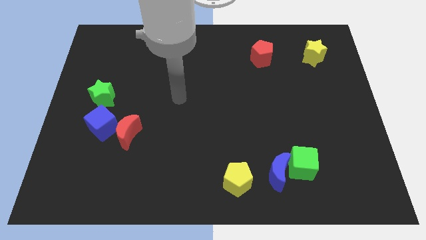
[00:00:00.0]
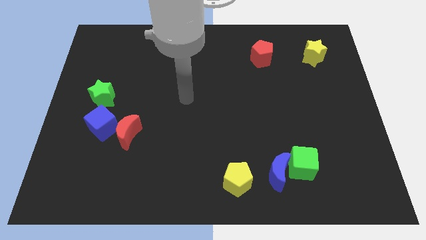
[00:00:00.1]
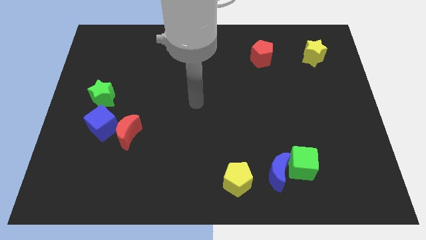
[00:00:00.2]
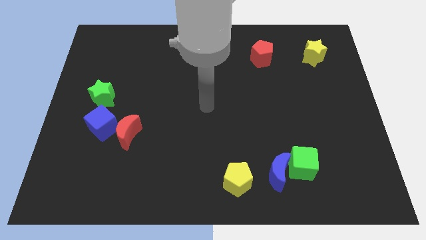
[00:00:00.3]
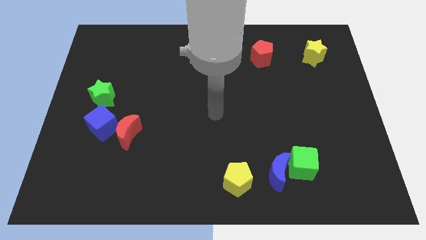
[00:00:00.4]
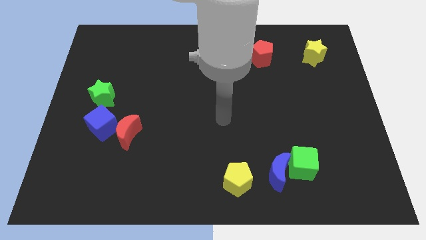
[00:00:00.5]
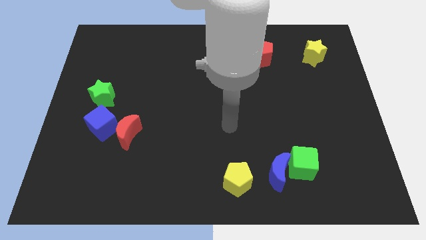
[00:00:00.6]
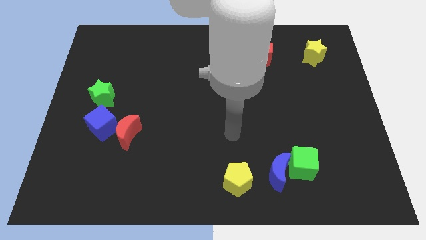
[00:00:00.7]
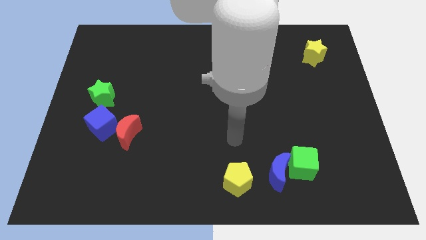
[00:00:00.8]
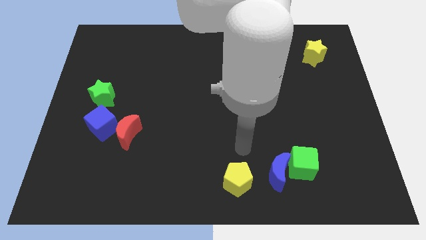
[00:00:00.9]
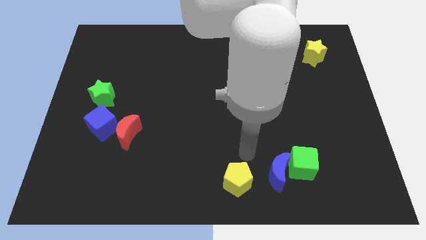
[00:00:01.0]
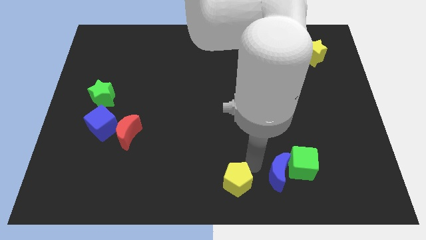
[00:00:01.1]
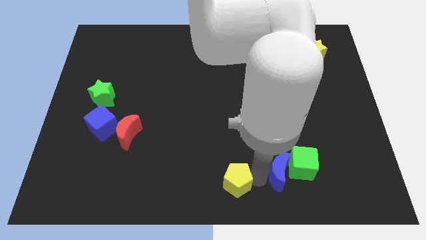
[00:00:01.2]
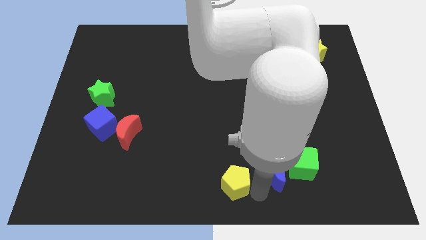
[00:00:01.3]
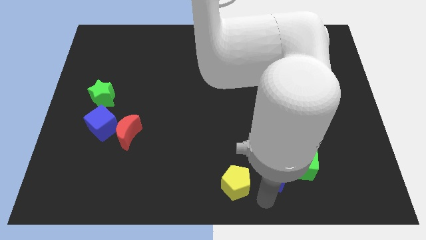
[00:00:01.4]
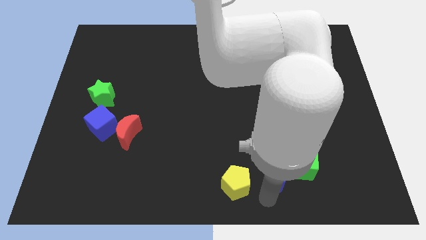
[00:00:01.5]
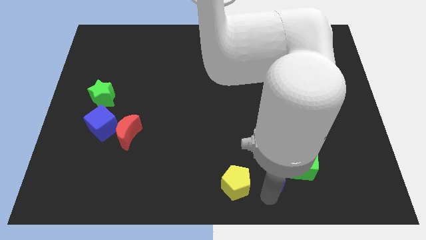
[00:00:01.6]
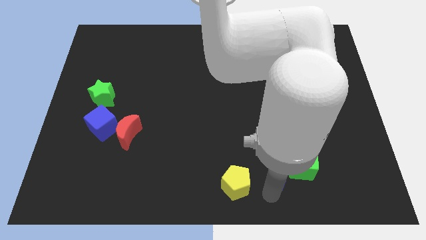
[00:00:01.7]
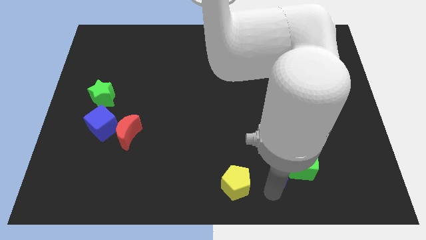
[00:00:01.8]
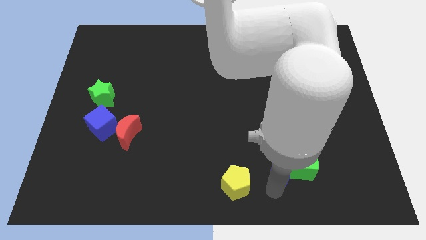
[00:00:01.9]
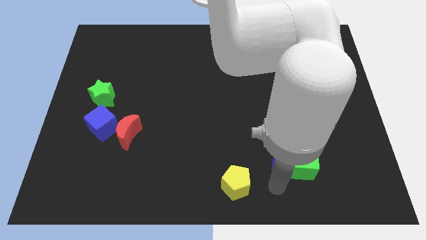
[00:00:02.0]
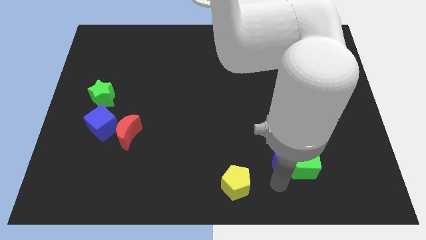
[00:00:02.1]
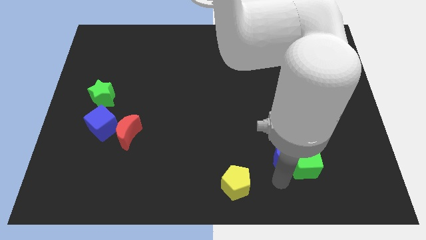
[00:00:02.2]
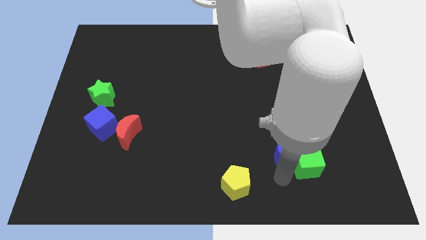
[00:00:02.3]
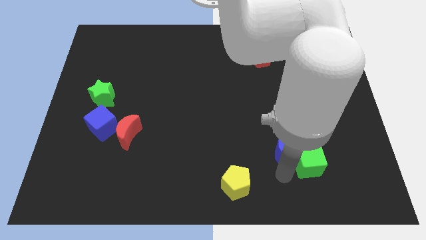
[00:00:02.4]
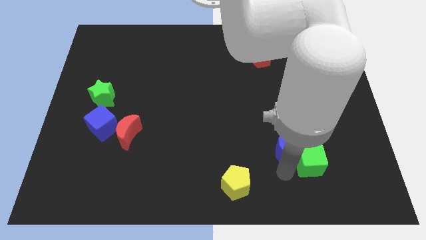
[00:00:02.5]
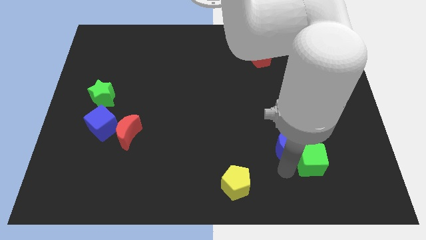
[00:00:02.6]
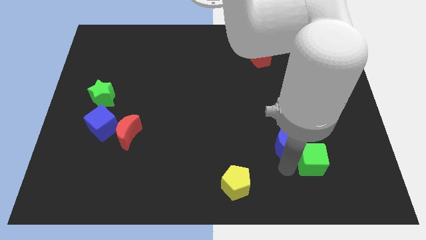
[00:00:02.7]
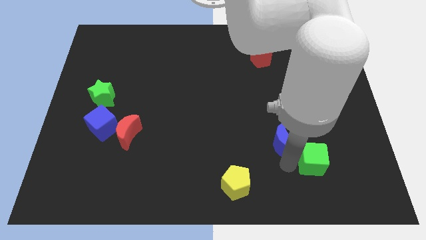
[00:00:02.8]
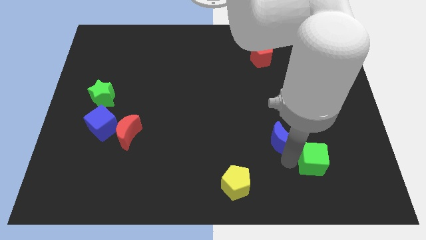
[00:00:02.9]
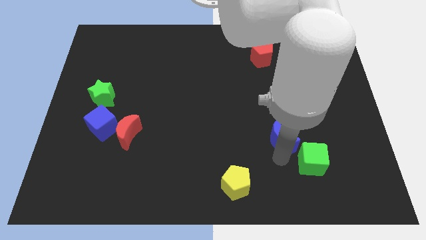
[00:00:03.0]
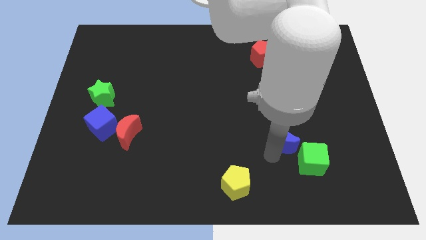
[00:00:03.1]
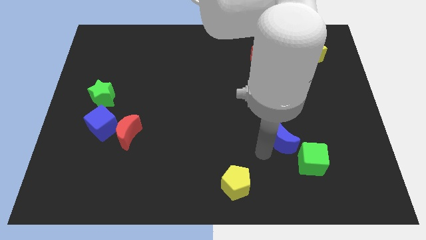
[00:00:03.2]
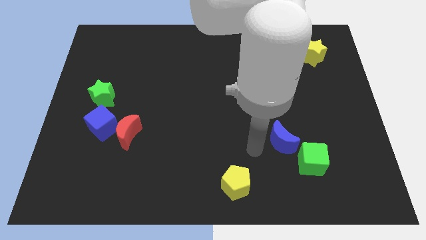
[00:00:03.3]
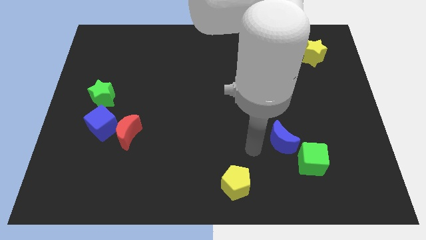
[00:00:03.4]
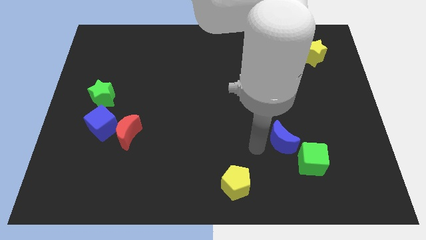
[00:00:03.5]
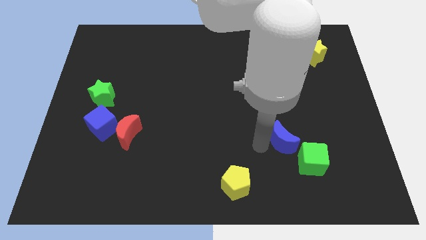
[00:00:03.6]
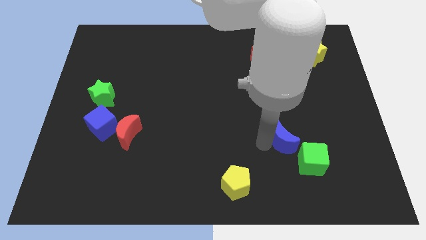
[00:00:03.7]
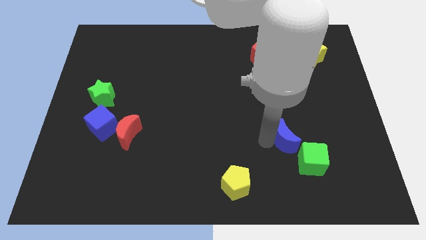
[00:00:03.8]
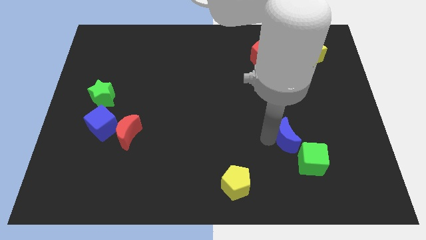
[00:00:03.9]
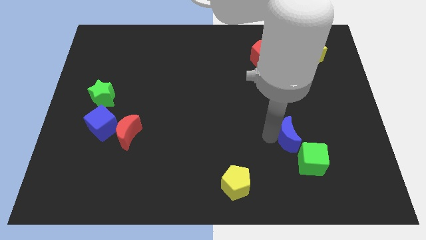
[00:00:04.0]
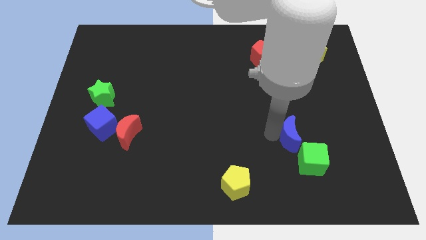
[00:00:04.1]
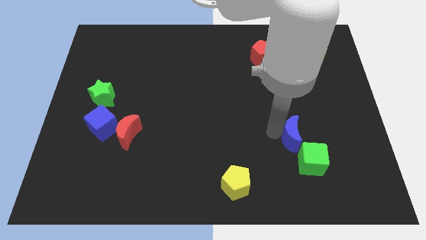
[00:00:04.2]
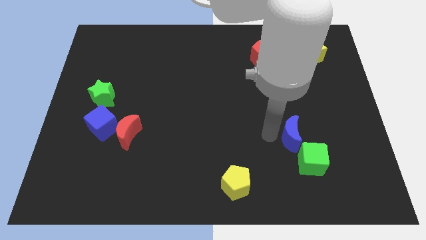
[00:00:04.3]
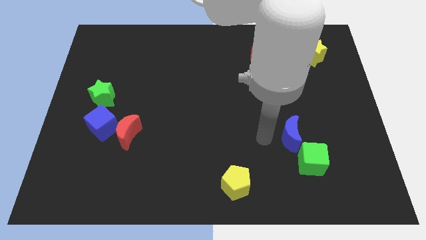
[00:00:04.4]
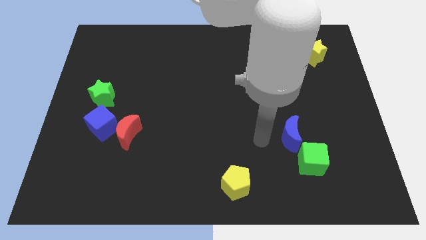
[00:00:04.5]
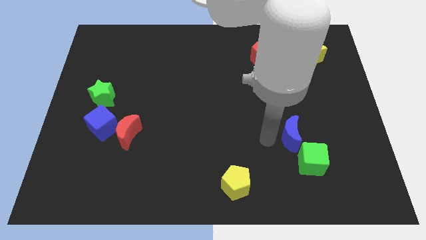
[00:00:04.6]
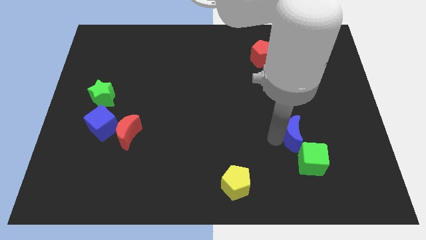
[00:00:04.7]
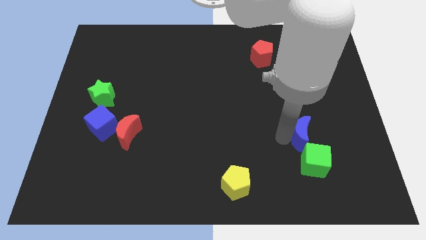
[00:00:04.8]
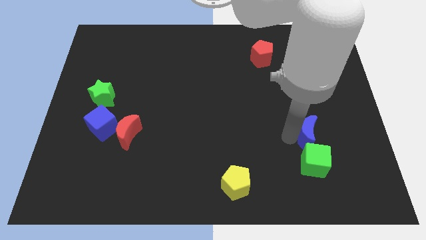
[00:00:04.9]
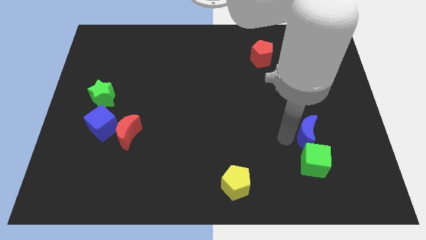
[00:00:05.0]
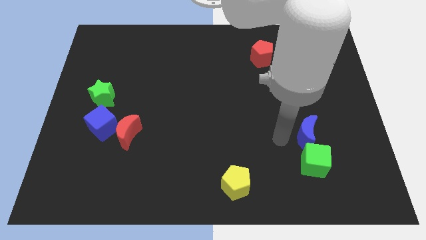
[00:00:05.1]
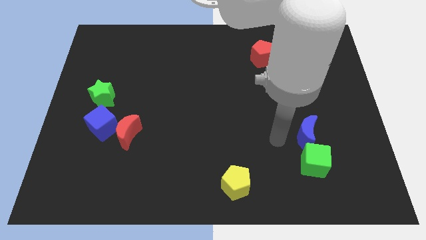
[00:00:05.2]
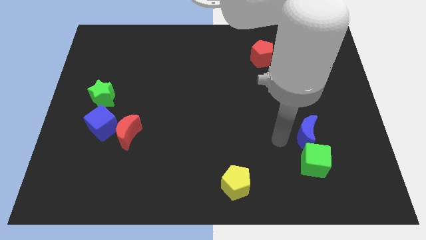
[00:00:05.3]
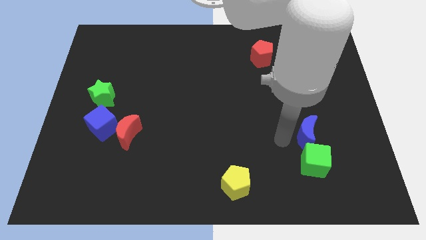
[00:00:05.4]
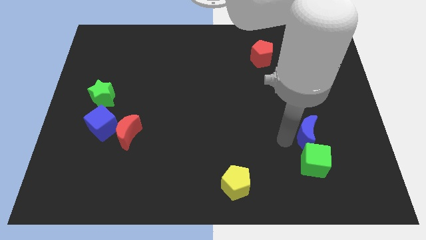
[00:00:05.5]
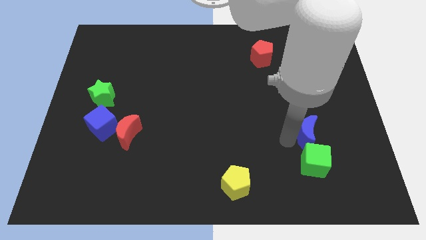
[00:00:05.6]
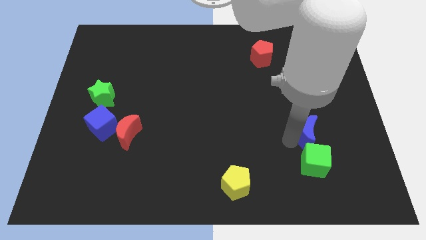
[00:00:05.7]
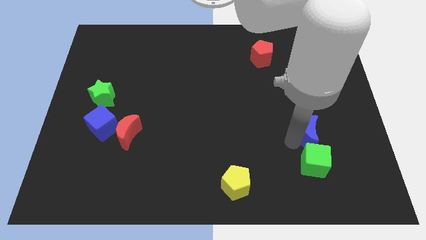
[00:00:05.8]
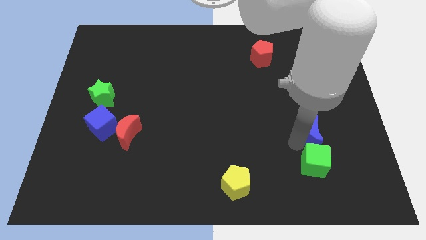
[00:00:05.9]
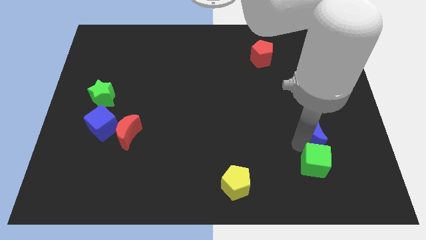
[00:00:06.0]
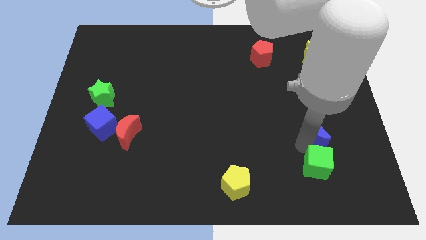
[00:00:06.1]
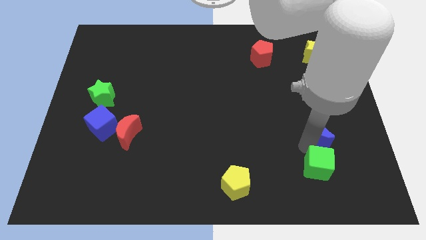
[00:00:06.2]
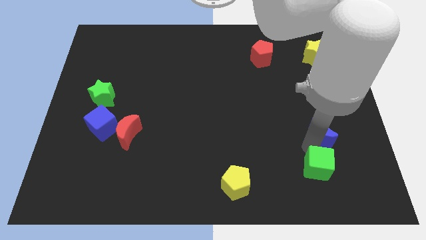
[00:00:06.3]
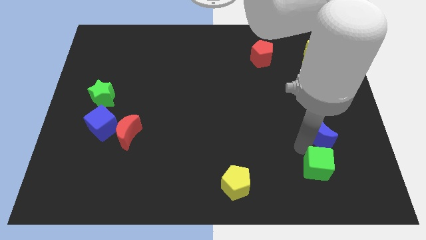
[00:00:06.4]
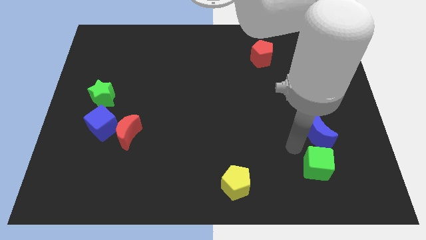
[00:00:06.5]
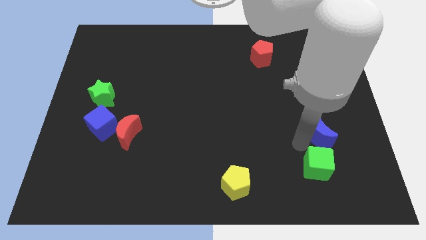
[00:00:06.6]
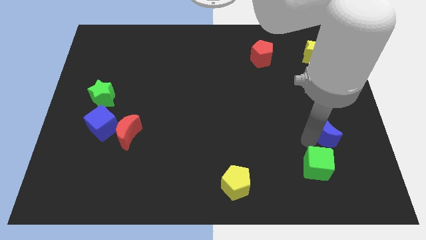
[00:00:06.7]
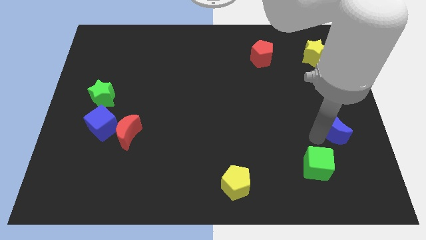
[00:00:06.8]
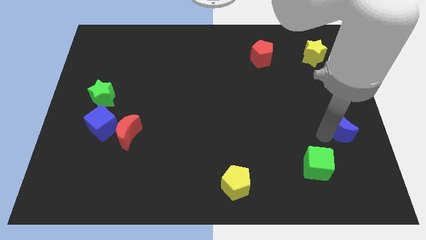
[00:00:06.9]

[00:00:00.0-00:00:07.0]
put the blue moon to the right side of the board

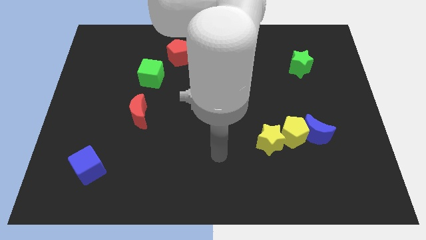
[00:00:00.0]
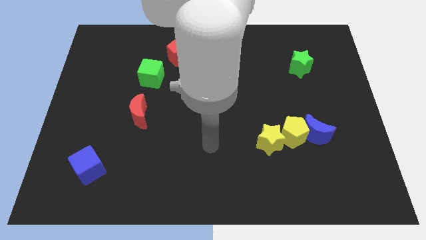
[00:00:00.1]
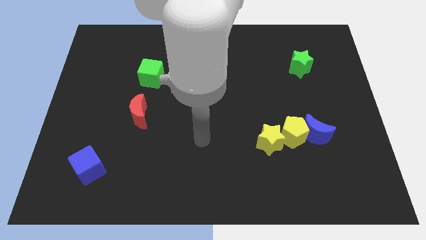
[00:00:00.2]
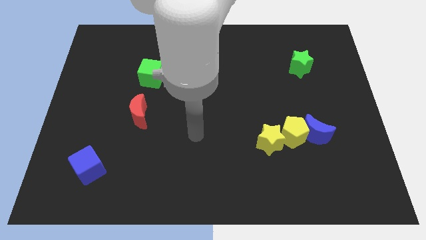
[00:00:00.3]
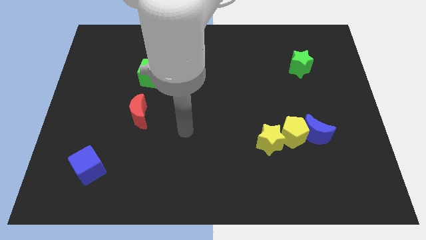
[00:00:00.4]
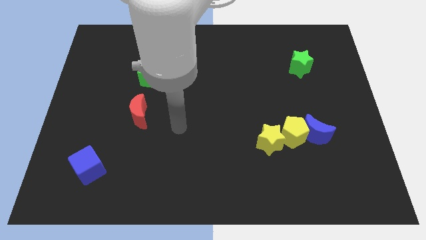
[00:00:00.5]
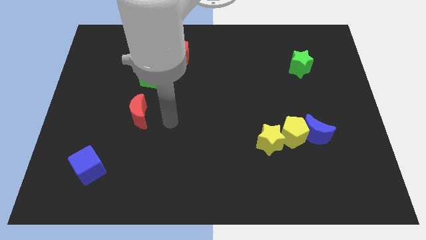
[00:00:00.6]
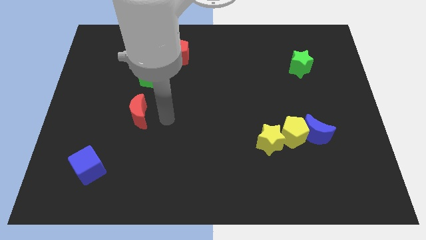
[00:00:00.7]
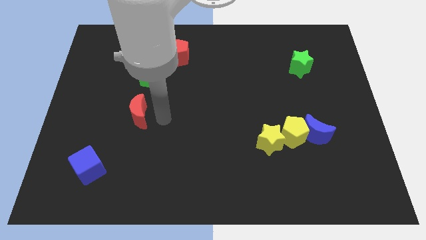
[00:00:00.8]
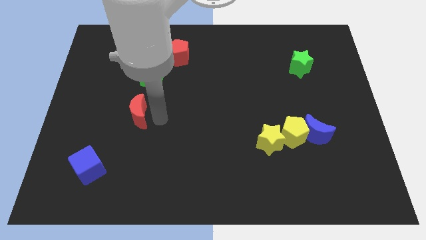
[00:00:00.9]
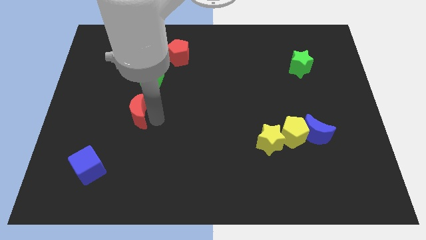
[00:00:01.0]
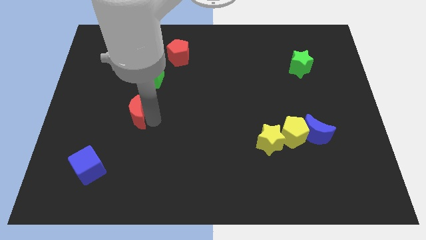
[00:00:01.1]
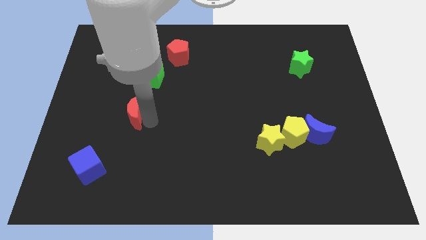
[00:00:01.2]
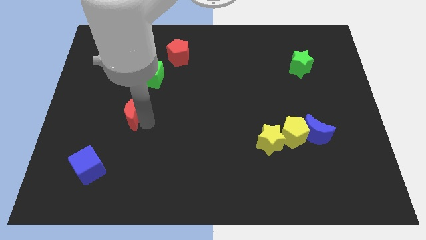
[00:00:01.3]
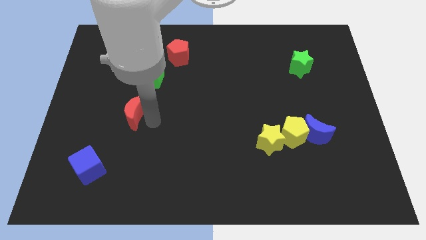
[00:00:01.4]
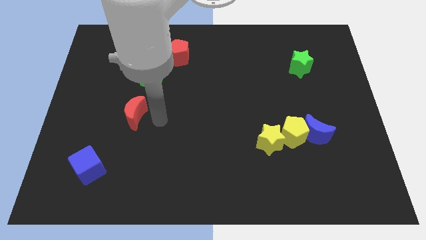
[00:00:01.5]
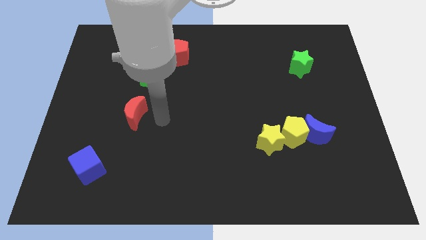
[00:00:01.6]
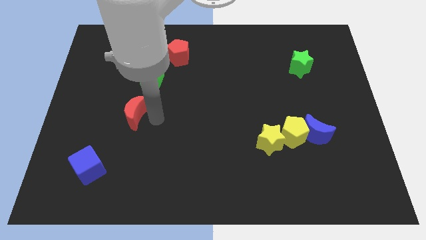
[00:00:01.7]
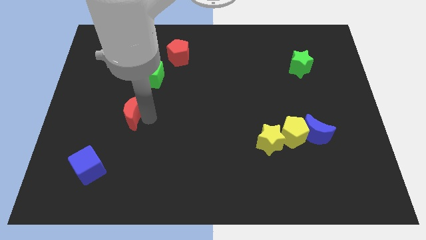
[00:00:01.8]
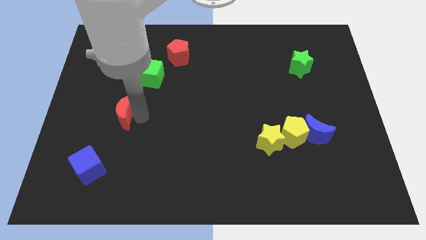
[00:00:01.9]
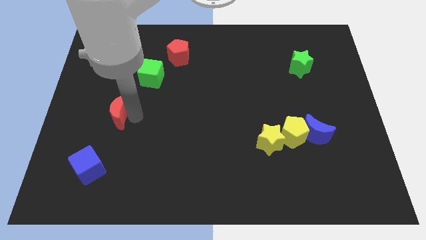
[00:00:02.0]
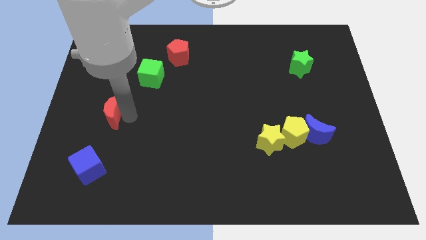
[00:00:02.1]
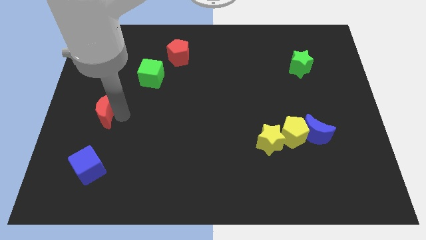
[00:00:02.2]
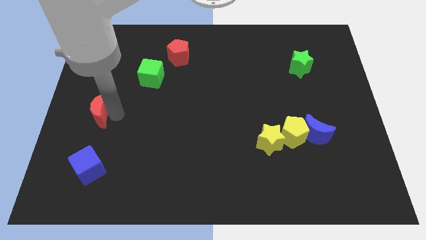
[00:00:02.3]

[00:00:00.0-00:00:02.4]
push the red moon to the left side of the board
